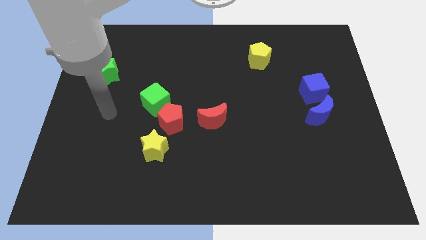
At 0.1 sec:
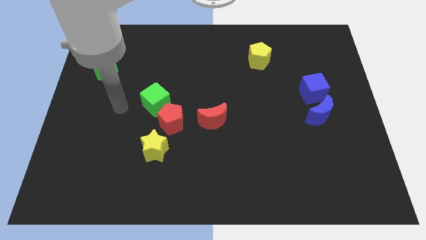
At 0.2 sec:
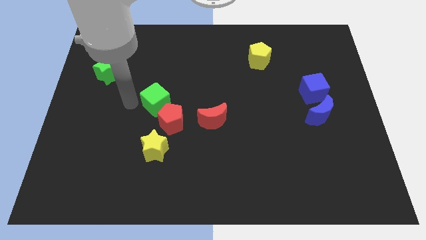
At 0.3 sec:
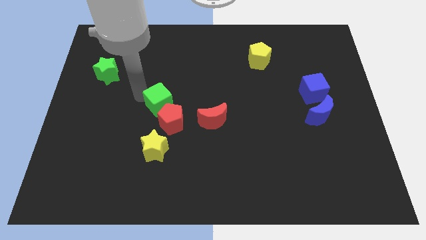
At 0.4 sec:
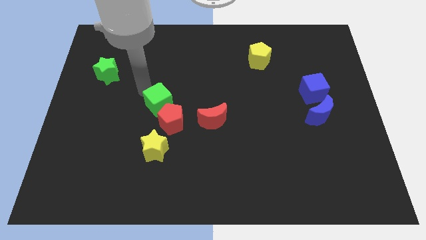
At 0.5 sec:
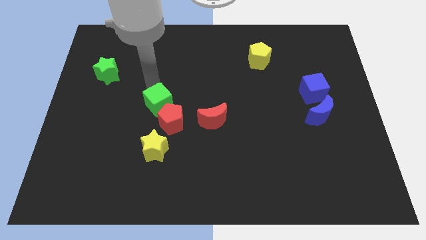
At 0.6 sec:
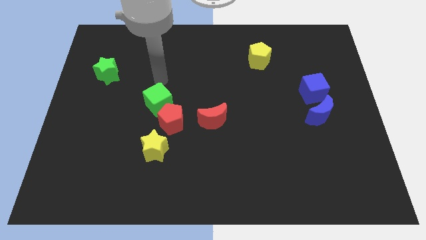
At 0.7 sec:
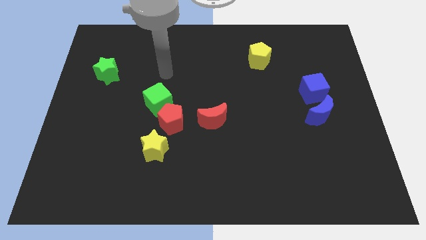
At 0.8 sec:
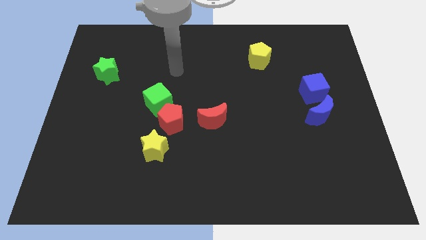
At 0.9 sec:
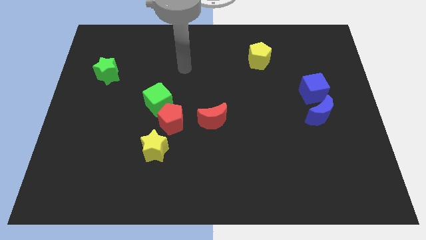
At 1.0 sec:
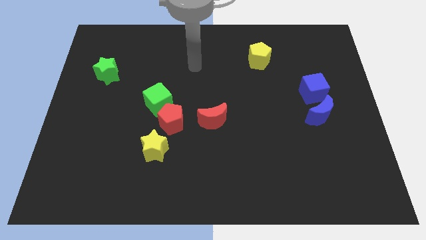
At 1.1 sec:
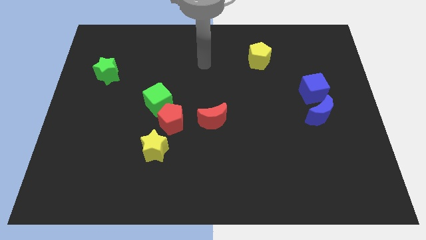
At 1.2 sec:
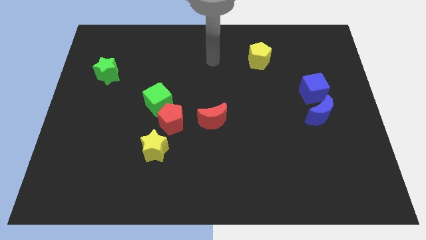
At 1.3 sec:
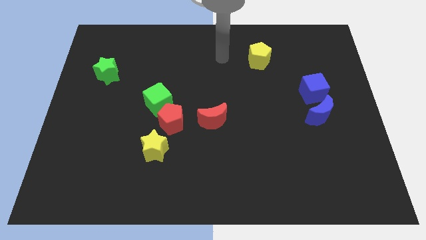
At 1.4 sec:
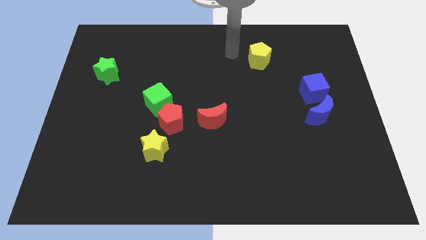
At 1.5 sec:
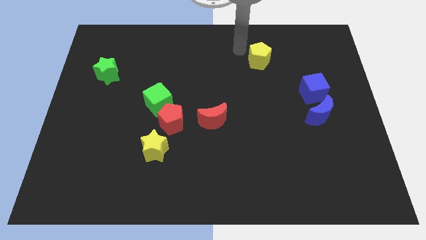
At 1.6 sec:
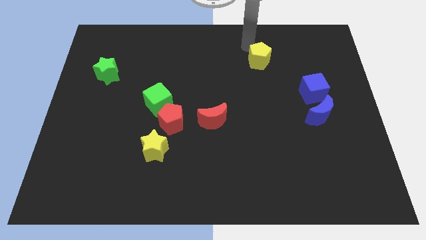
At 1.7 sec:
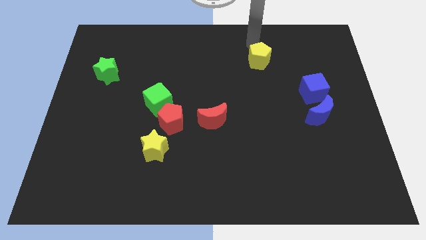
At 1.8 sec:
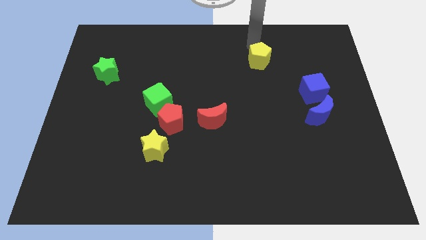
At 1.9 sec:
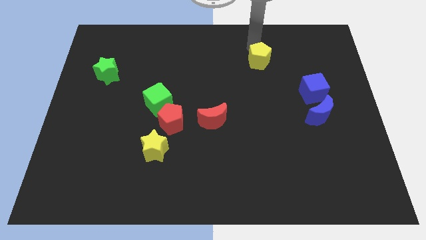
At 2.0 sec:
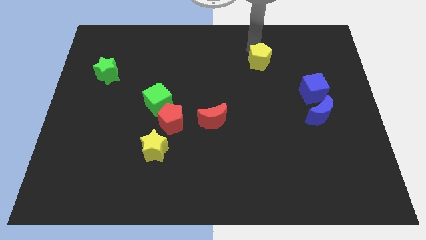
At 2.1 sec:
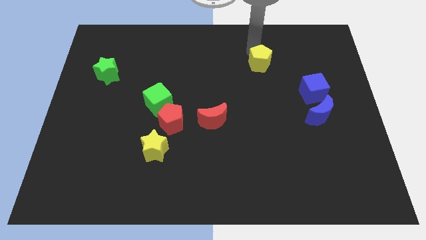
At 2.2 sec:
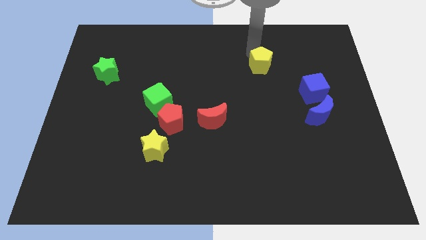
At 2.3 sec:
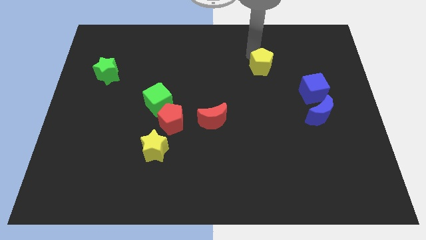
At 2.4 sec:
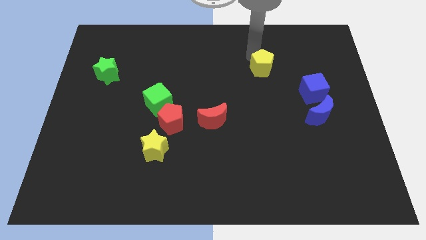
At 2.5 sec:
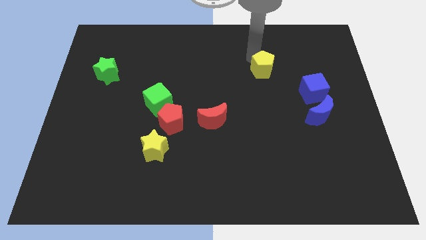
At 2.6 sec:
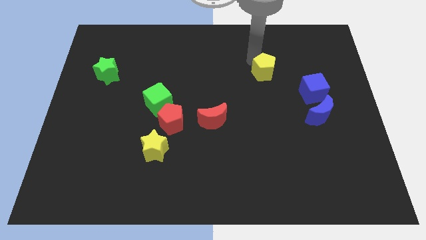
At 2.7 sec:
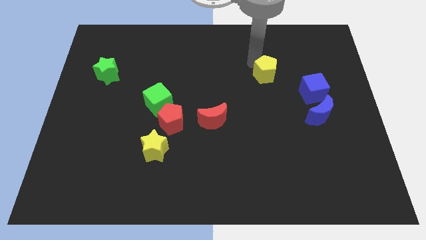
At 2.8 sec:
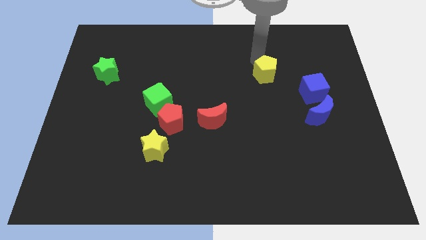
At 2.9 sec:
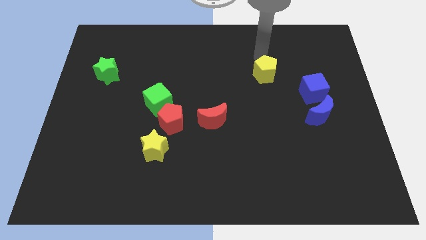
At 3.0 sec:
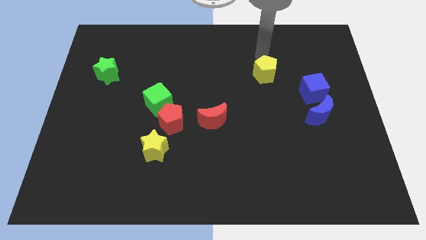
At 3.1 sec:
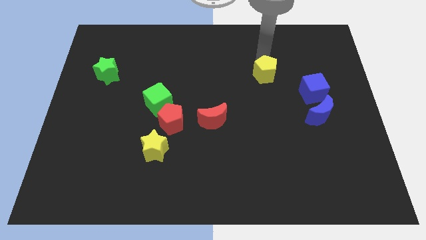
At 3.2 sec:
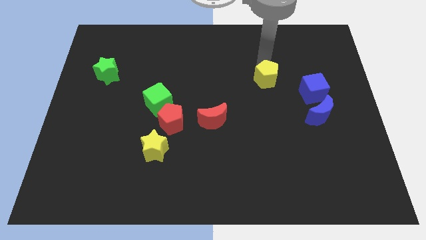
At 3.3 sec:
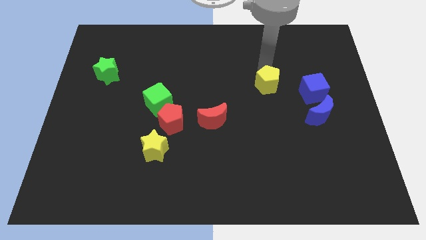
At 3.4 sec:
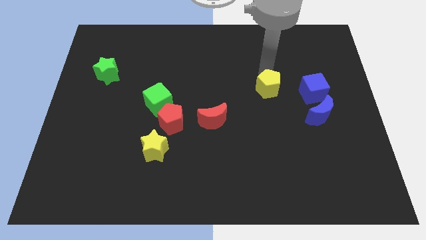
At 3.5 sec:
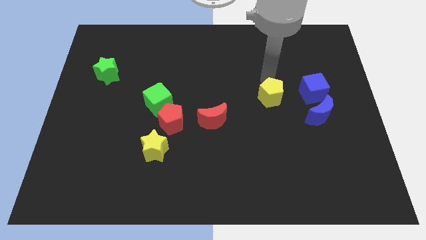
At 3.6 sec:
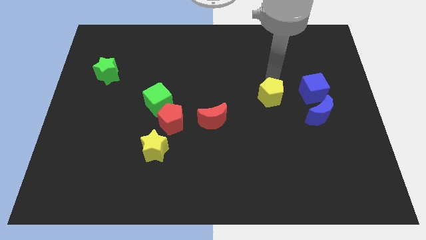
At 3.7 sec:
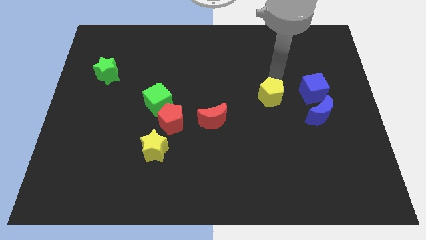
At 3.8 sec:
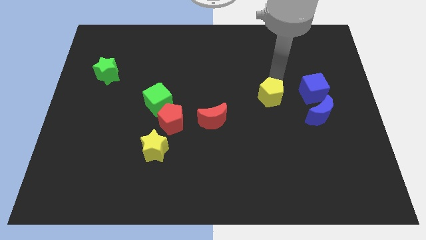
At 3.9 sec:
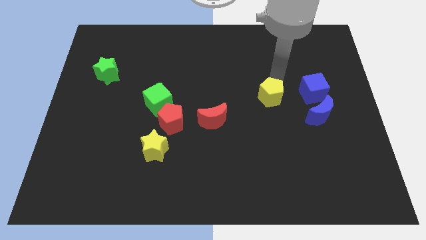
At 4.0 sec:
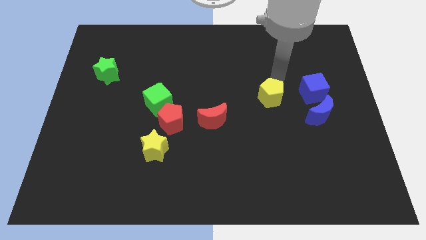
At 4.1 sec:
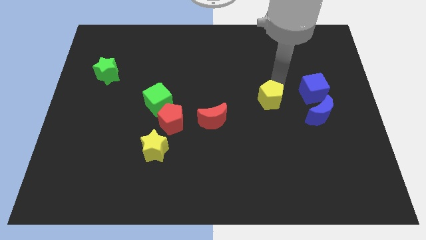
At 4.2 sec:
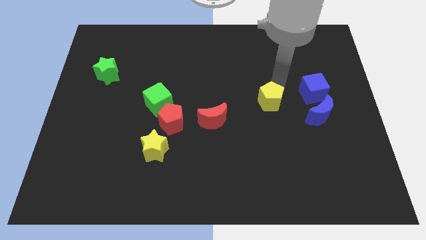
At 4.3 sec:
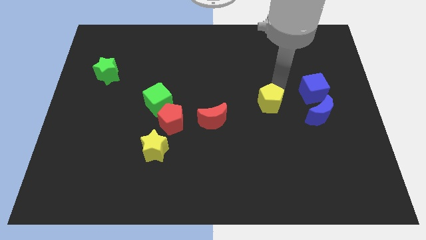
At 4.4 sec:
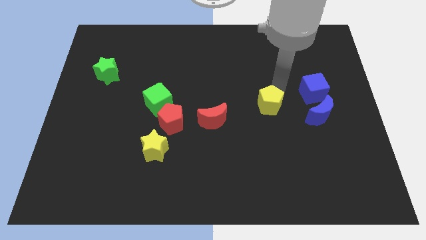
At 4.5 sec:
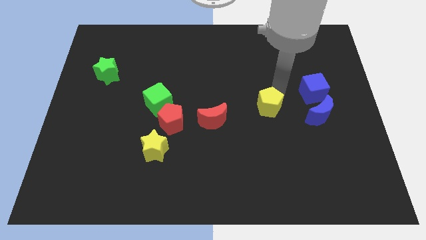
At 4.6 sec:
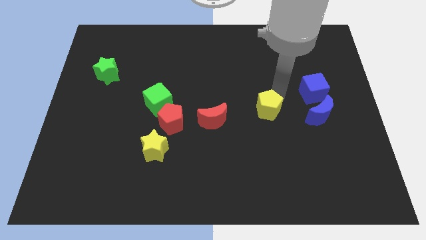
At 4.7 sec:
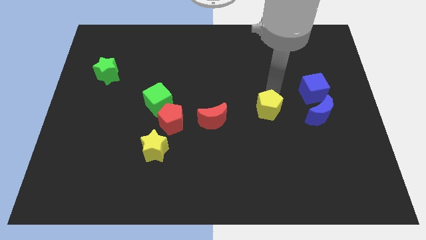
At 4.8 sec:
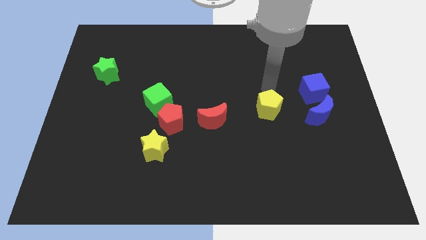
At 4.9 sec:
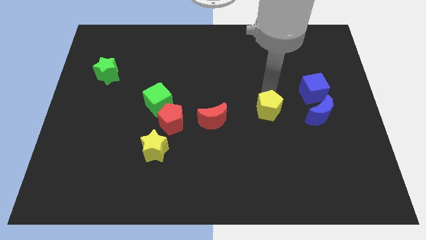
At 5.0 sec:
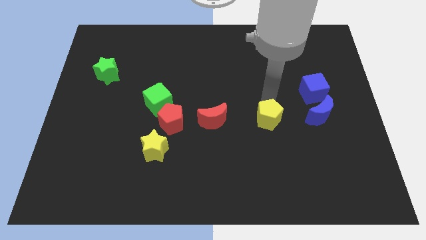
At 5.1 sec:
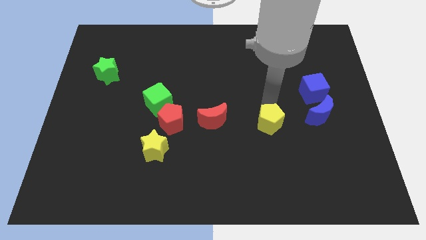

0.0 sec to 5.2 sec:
move the yellow pentagon downwards

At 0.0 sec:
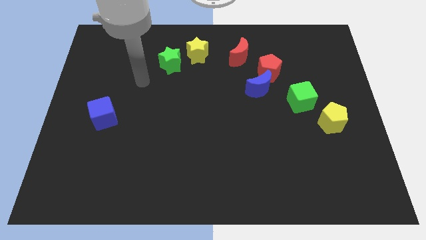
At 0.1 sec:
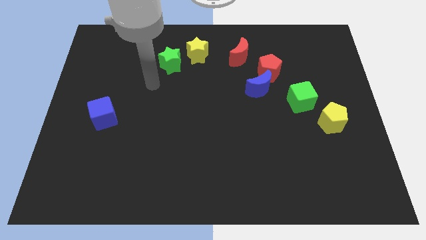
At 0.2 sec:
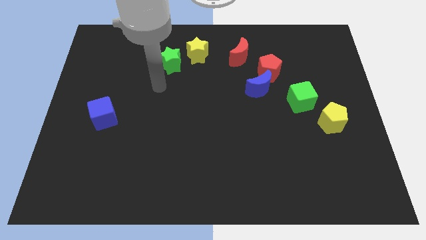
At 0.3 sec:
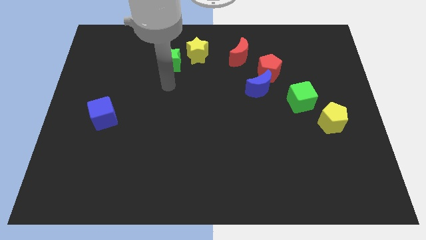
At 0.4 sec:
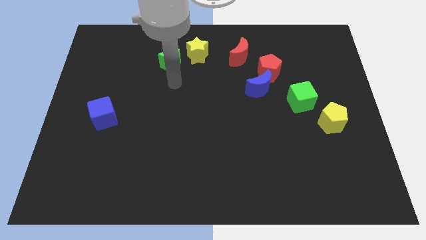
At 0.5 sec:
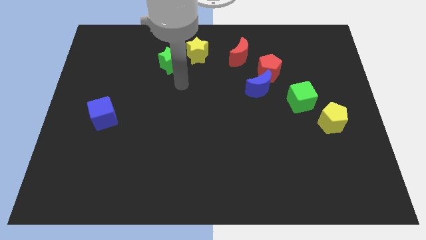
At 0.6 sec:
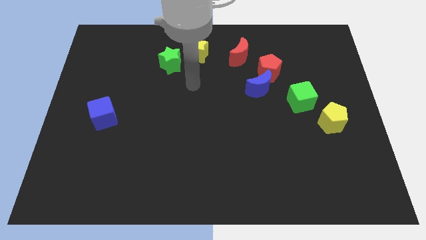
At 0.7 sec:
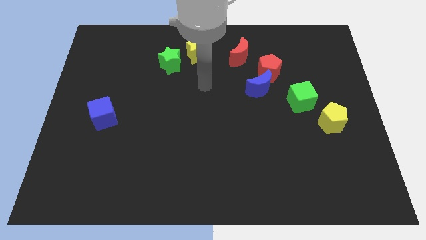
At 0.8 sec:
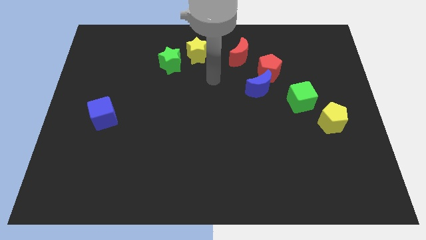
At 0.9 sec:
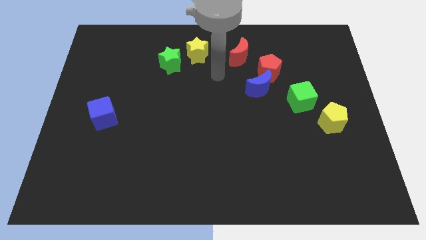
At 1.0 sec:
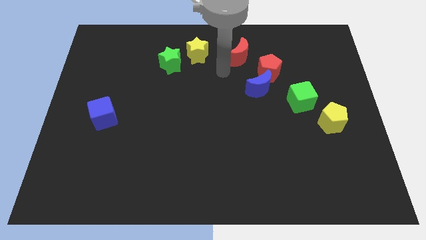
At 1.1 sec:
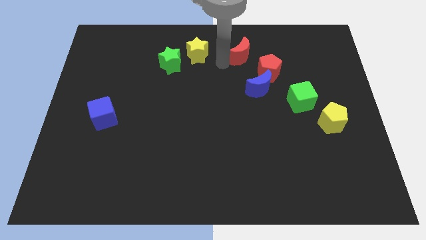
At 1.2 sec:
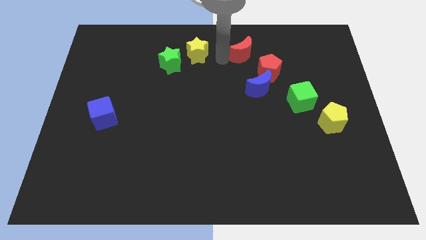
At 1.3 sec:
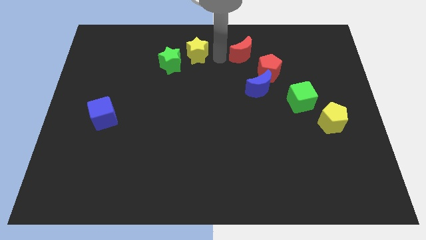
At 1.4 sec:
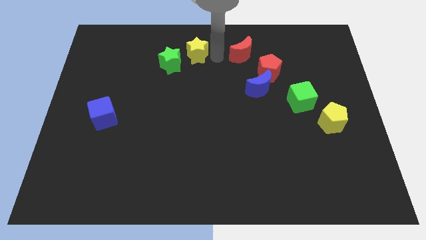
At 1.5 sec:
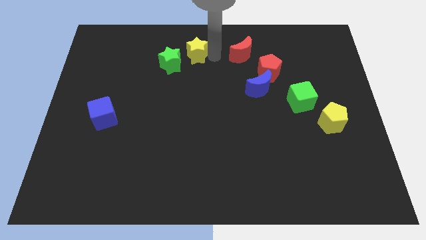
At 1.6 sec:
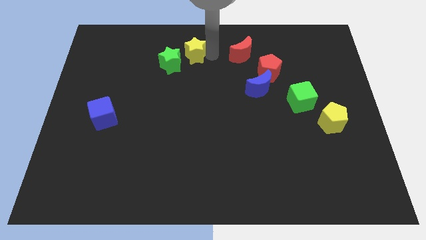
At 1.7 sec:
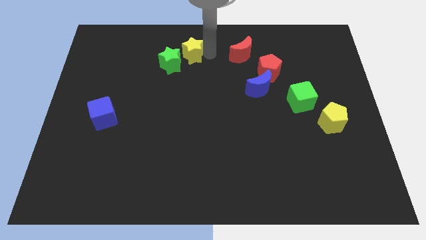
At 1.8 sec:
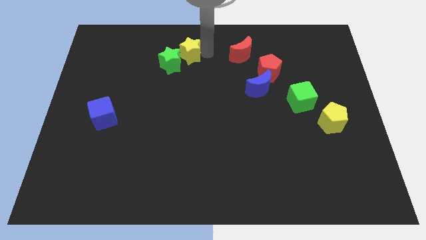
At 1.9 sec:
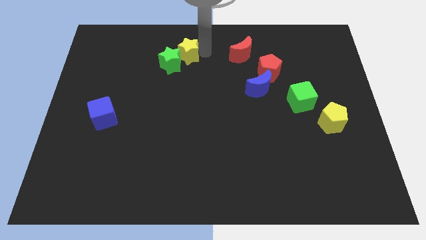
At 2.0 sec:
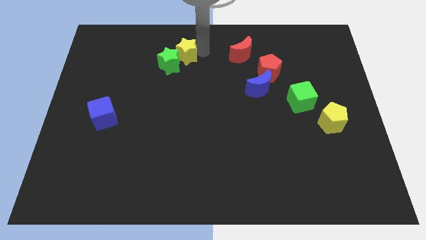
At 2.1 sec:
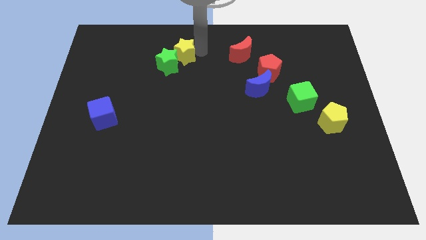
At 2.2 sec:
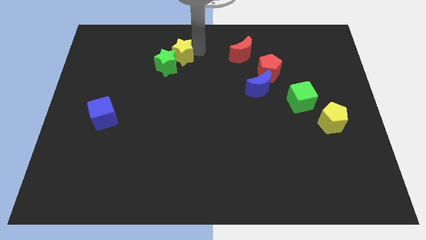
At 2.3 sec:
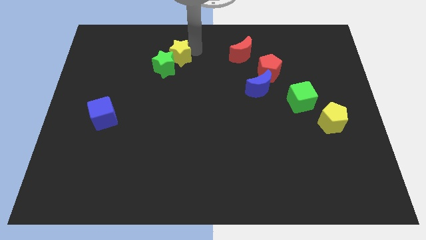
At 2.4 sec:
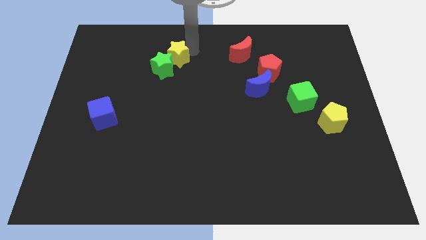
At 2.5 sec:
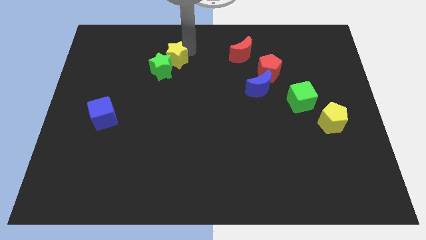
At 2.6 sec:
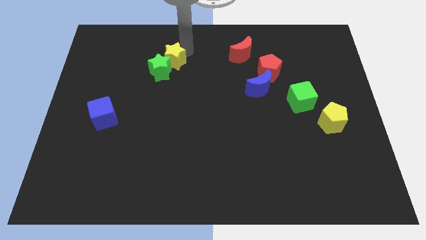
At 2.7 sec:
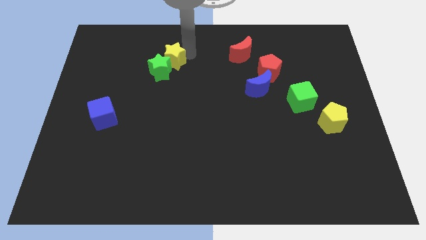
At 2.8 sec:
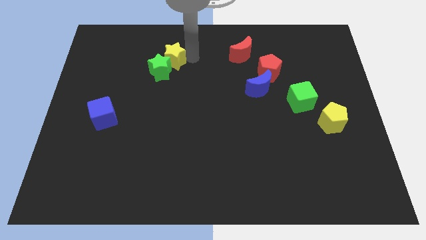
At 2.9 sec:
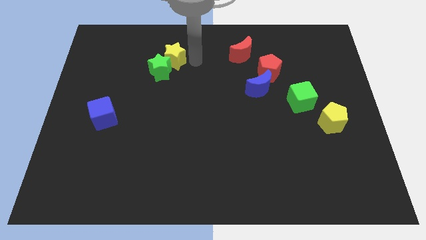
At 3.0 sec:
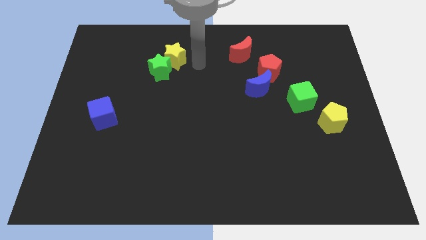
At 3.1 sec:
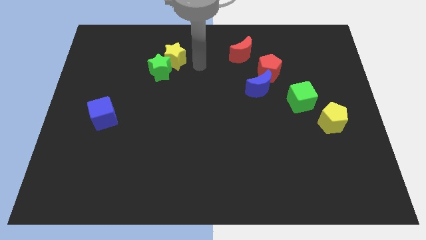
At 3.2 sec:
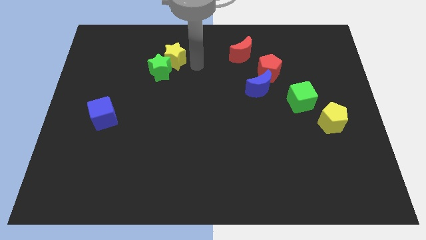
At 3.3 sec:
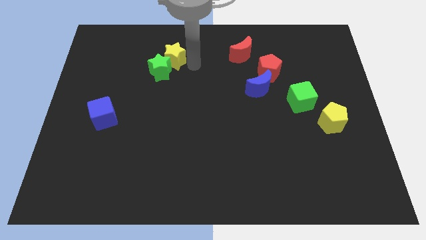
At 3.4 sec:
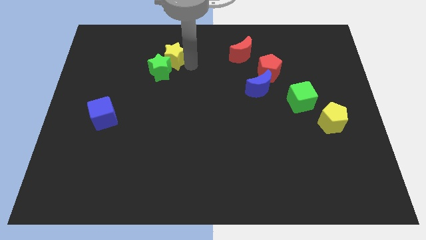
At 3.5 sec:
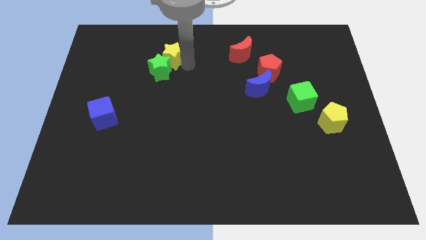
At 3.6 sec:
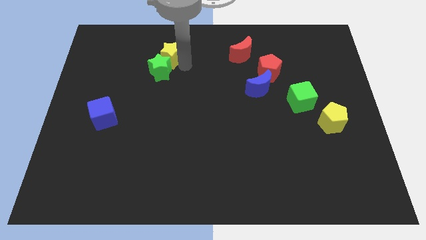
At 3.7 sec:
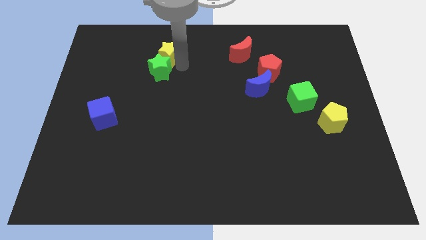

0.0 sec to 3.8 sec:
push the yellow star to the left a bit
